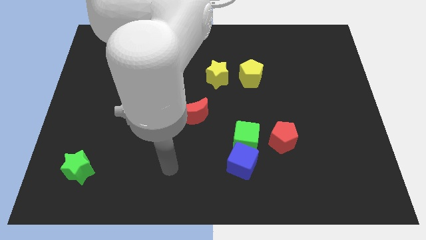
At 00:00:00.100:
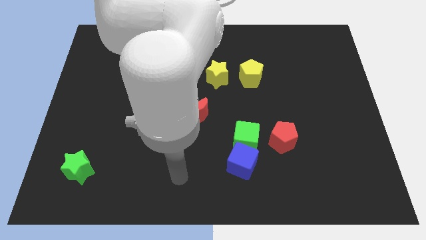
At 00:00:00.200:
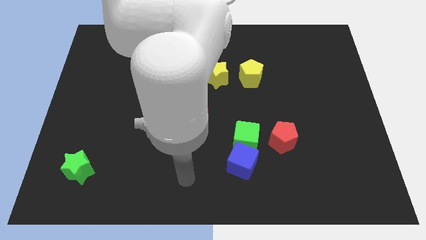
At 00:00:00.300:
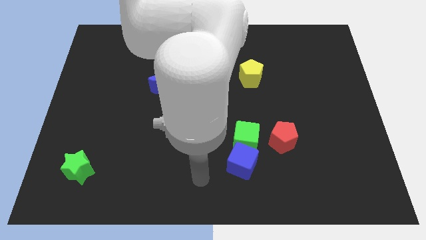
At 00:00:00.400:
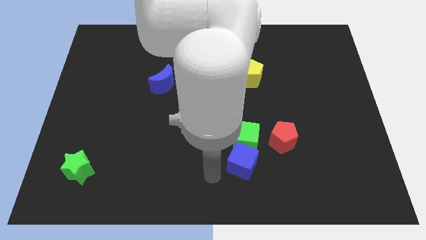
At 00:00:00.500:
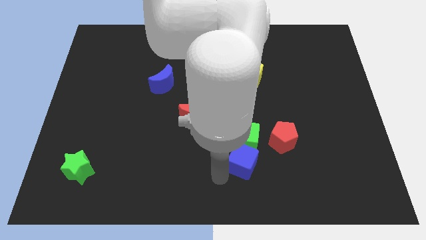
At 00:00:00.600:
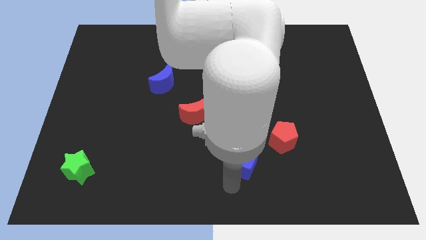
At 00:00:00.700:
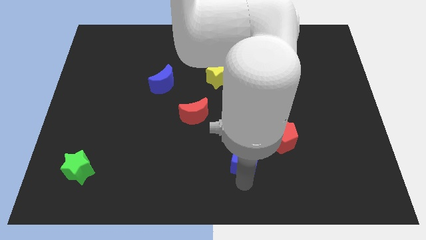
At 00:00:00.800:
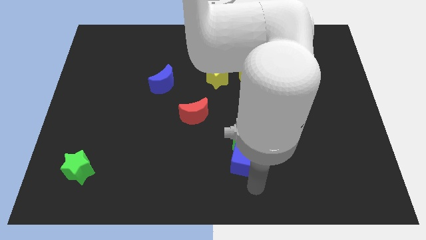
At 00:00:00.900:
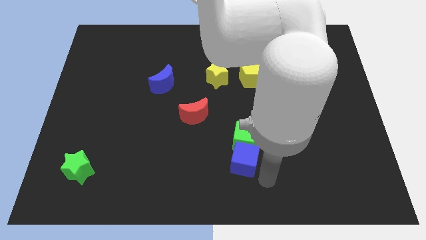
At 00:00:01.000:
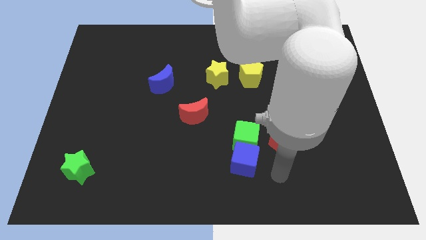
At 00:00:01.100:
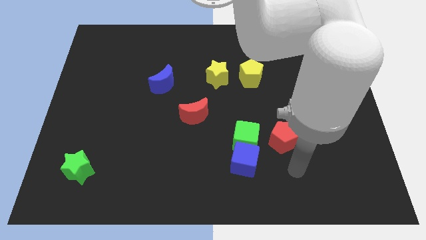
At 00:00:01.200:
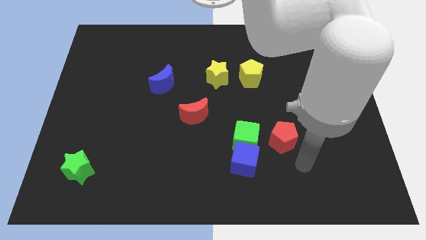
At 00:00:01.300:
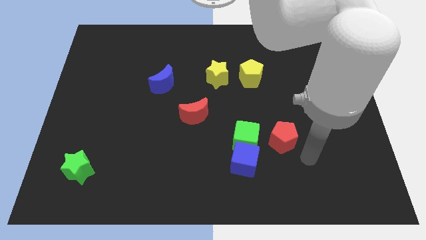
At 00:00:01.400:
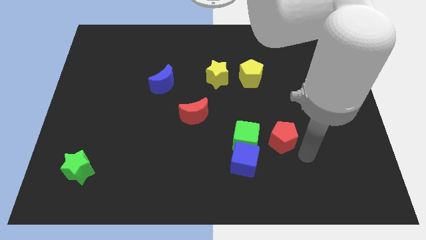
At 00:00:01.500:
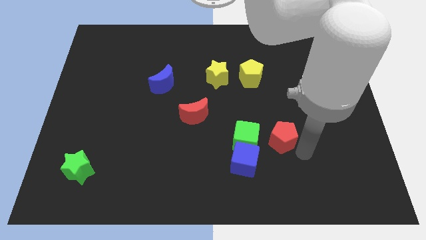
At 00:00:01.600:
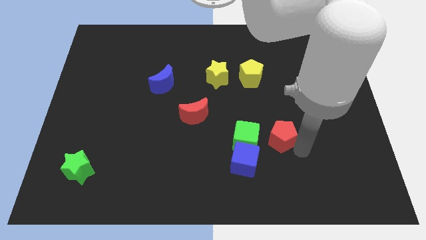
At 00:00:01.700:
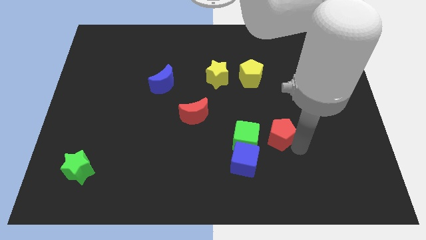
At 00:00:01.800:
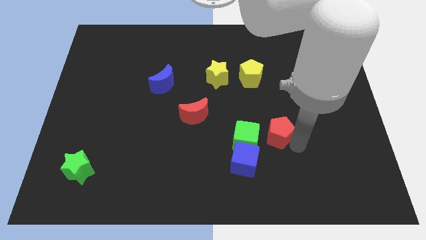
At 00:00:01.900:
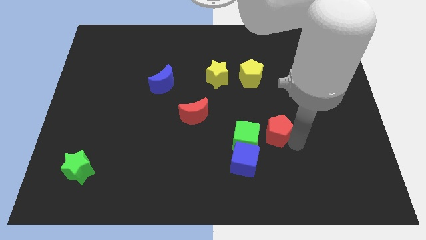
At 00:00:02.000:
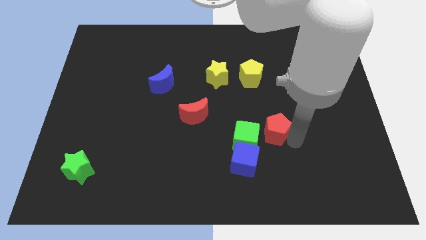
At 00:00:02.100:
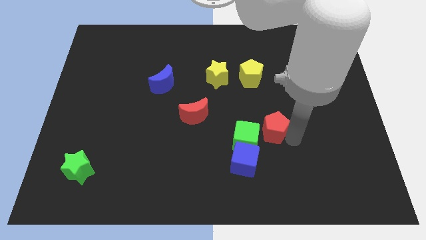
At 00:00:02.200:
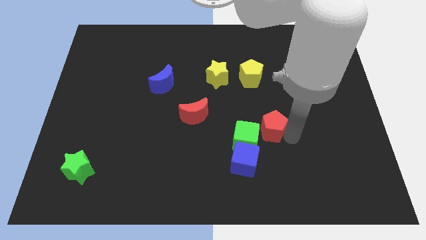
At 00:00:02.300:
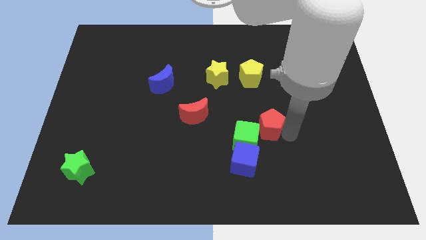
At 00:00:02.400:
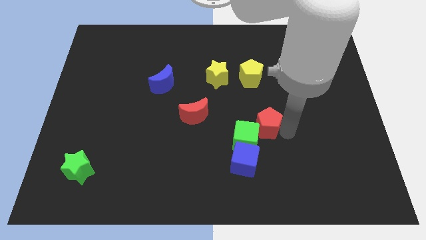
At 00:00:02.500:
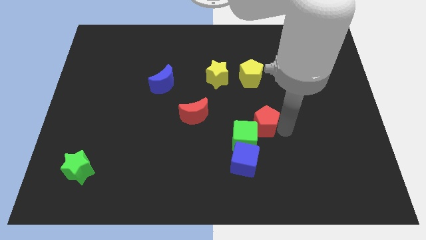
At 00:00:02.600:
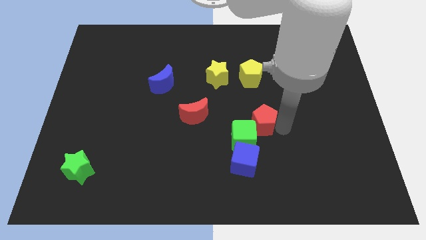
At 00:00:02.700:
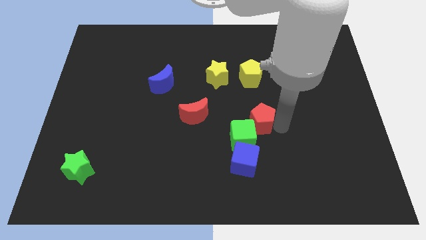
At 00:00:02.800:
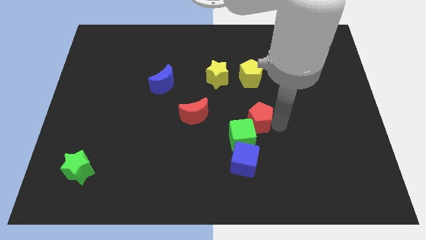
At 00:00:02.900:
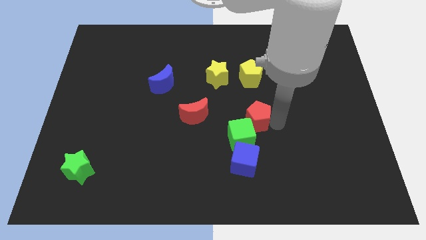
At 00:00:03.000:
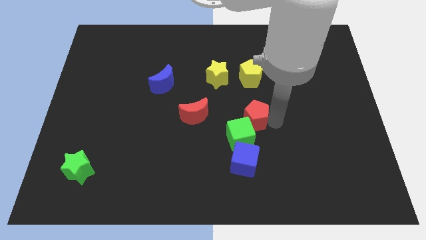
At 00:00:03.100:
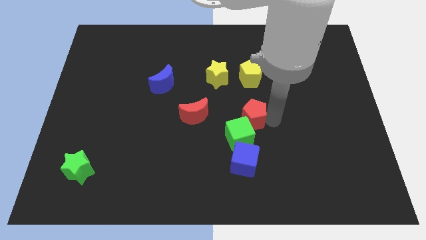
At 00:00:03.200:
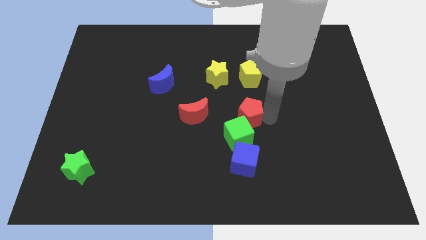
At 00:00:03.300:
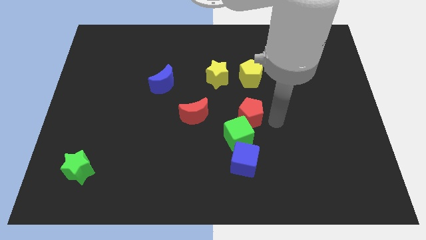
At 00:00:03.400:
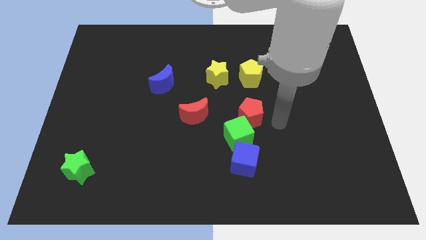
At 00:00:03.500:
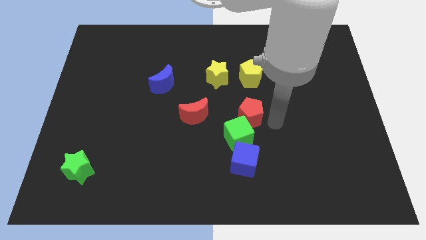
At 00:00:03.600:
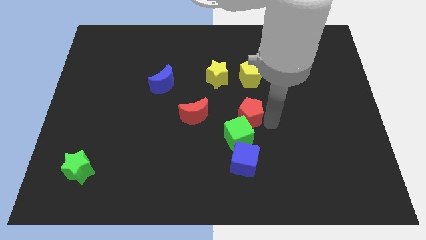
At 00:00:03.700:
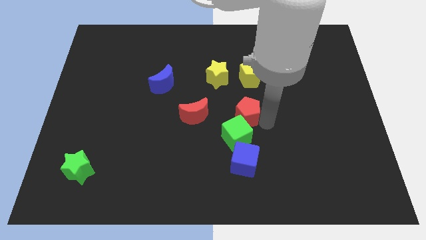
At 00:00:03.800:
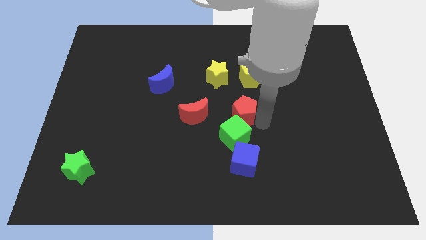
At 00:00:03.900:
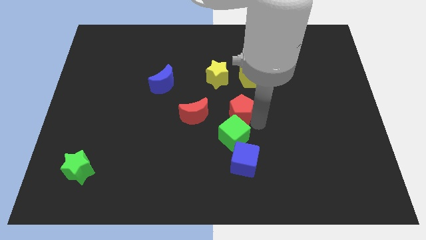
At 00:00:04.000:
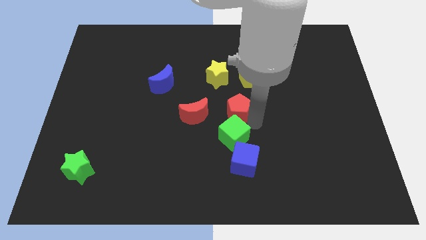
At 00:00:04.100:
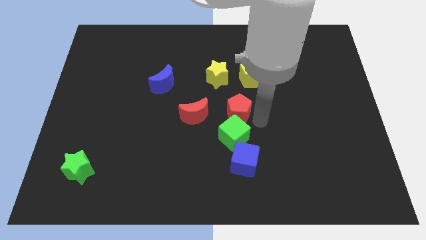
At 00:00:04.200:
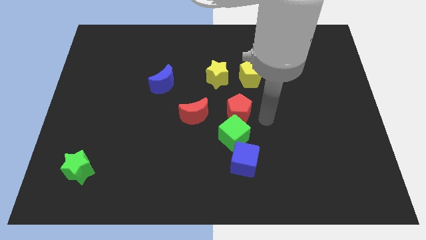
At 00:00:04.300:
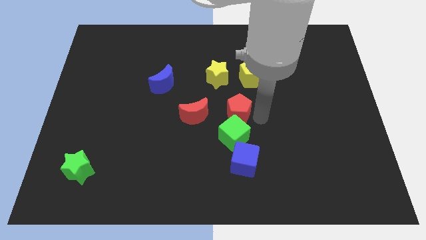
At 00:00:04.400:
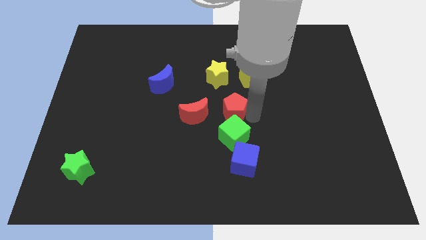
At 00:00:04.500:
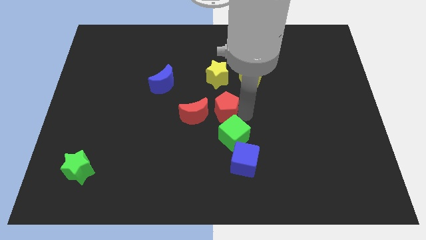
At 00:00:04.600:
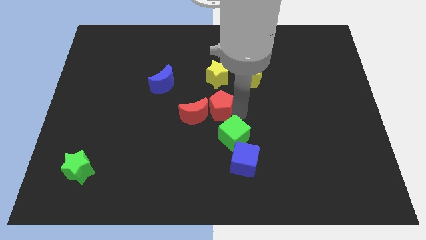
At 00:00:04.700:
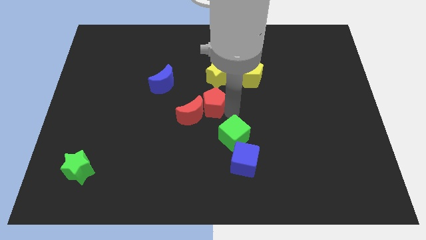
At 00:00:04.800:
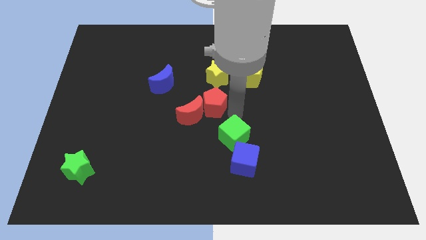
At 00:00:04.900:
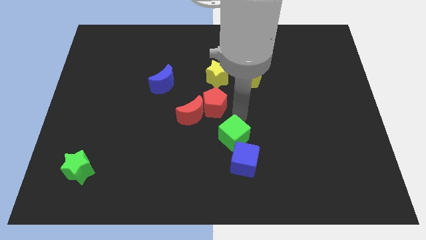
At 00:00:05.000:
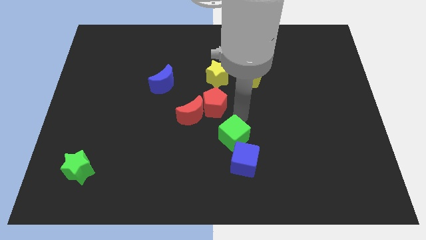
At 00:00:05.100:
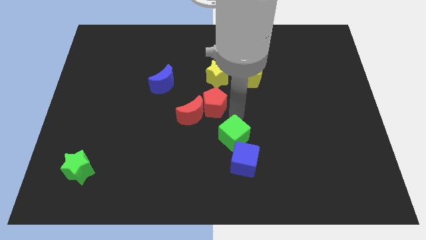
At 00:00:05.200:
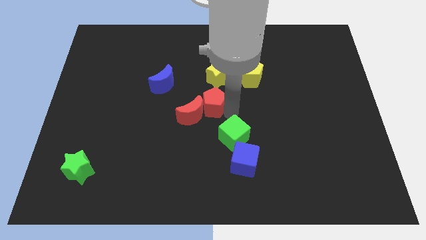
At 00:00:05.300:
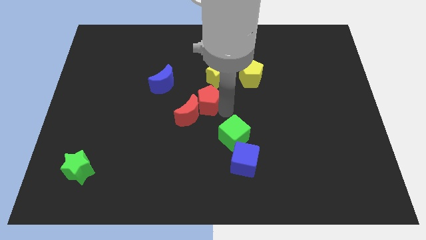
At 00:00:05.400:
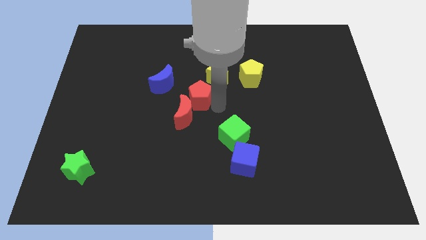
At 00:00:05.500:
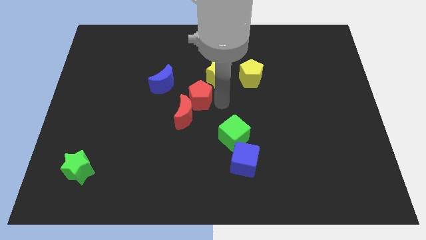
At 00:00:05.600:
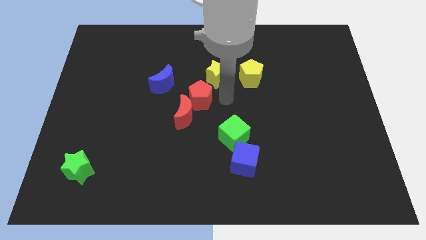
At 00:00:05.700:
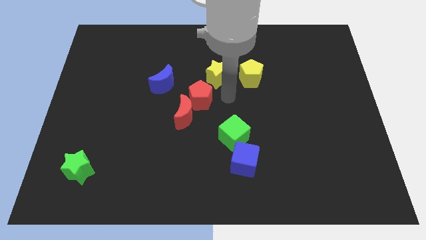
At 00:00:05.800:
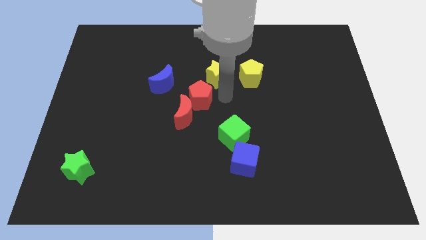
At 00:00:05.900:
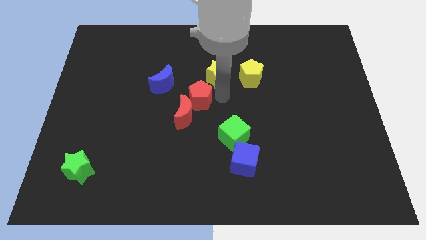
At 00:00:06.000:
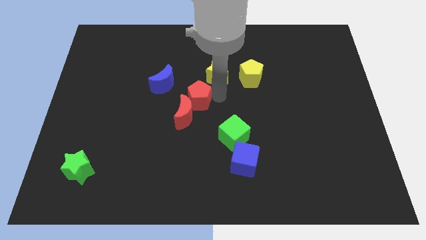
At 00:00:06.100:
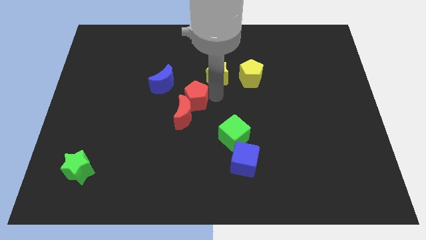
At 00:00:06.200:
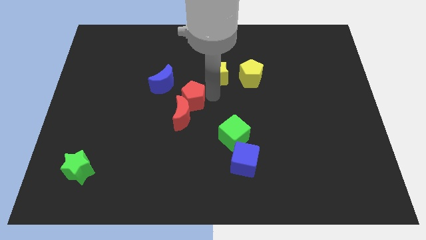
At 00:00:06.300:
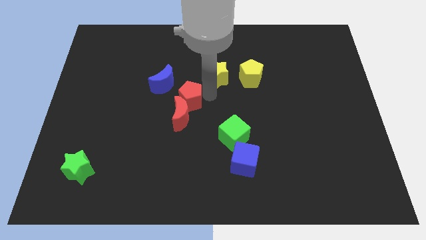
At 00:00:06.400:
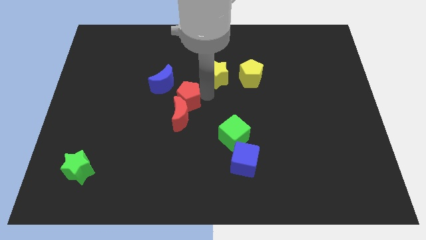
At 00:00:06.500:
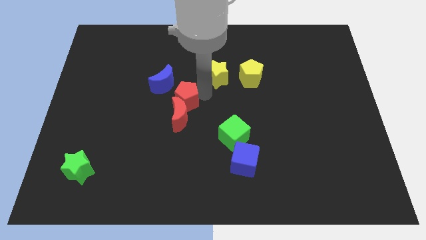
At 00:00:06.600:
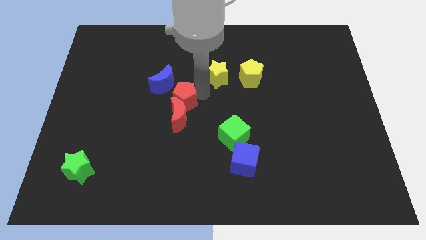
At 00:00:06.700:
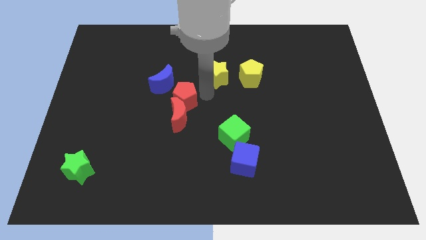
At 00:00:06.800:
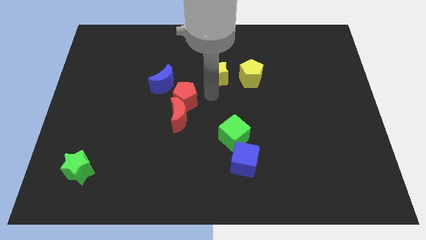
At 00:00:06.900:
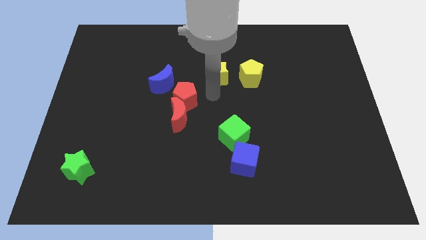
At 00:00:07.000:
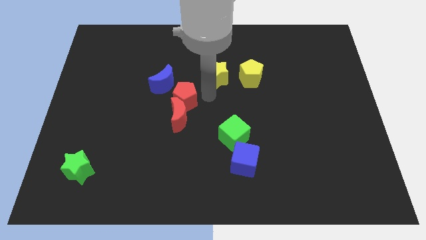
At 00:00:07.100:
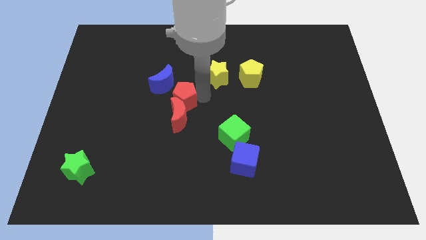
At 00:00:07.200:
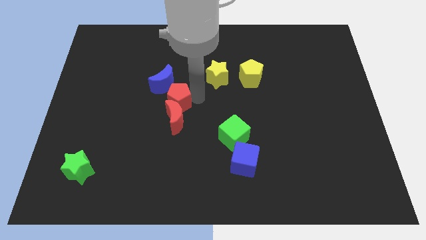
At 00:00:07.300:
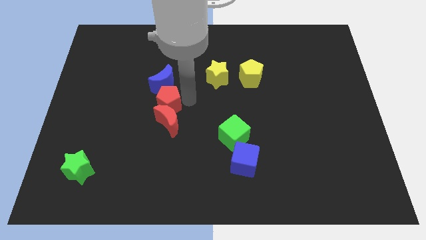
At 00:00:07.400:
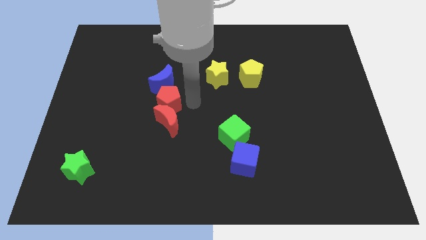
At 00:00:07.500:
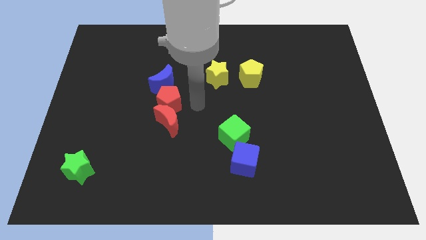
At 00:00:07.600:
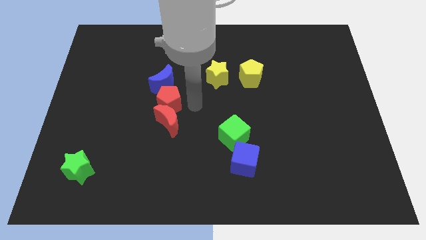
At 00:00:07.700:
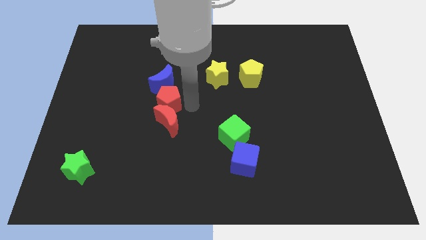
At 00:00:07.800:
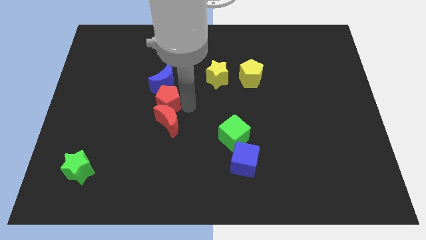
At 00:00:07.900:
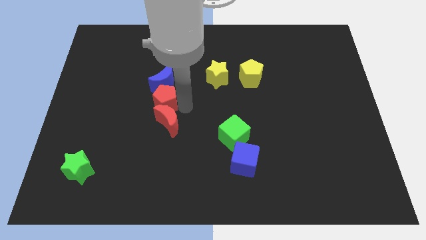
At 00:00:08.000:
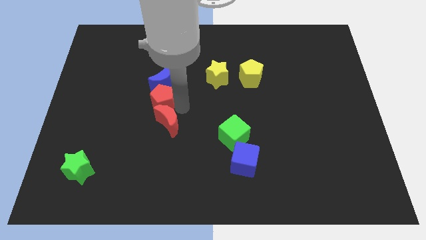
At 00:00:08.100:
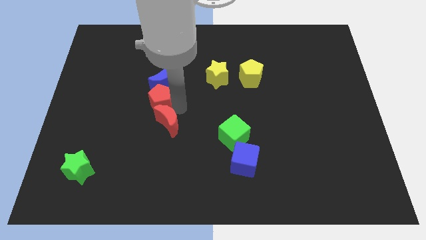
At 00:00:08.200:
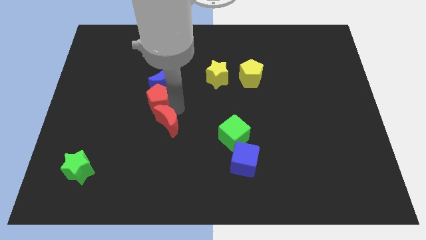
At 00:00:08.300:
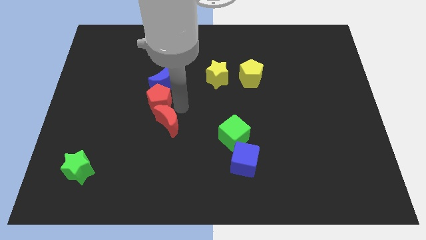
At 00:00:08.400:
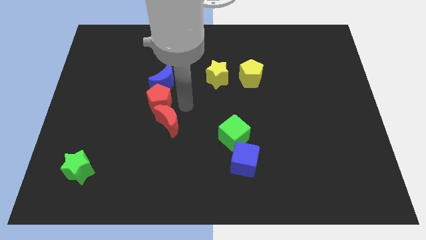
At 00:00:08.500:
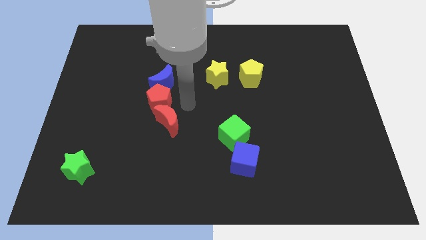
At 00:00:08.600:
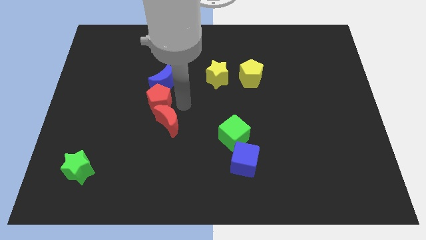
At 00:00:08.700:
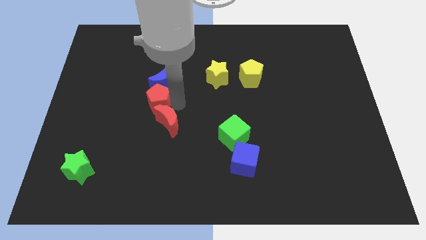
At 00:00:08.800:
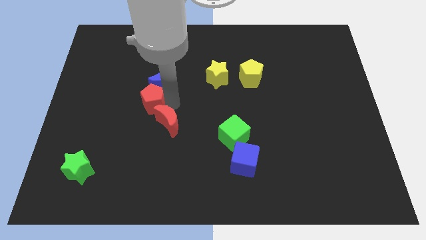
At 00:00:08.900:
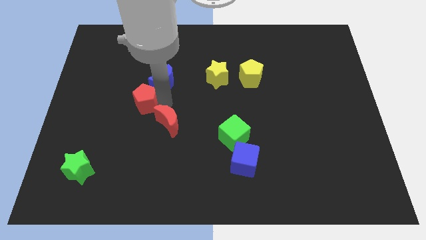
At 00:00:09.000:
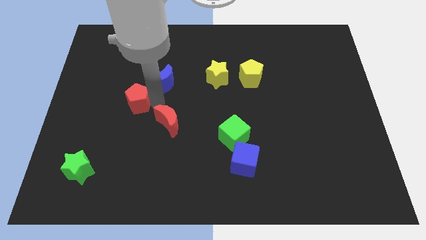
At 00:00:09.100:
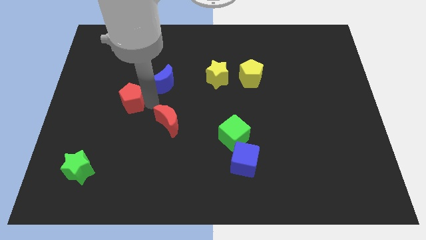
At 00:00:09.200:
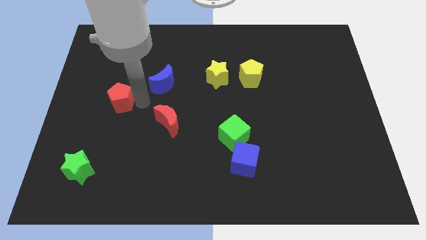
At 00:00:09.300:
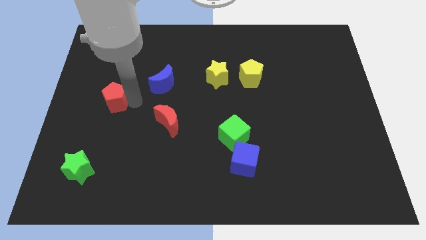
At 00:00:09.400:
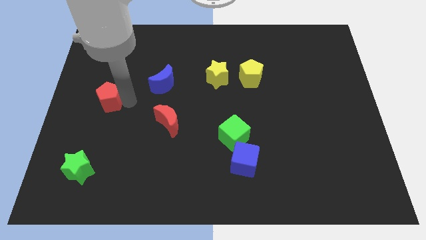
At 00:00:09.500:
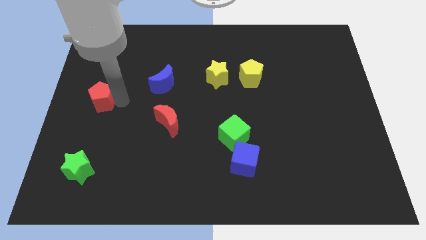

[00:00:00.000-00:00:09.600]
put the red pentagon to the left side of the board
